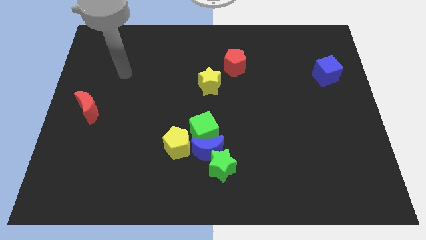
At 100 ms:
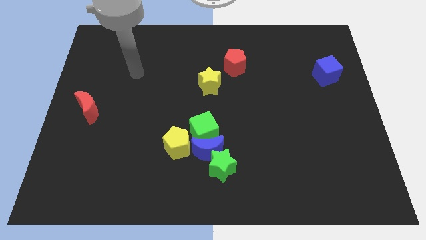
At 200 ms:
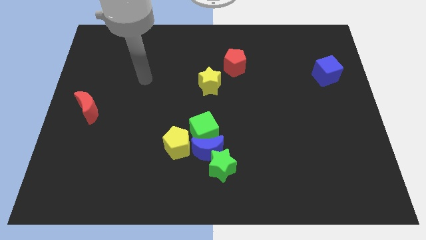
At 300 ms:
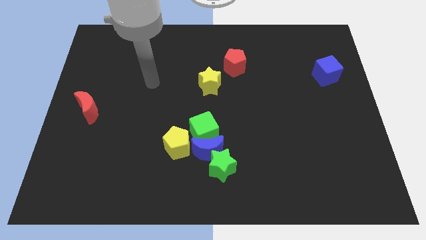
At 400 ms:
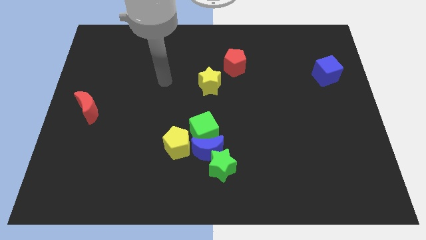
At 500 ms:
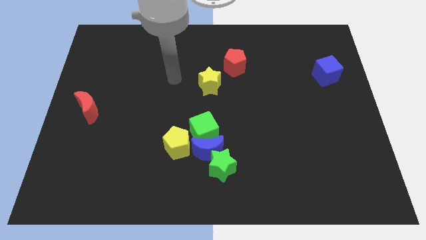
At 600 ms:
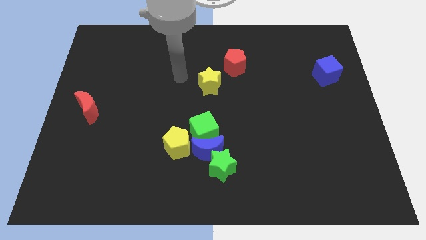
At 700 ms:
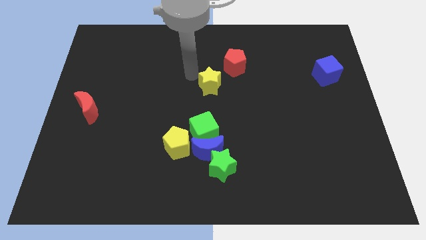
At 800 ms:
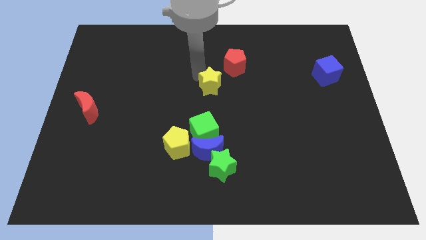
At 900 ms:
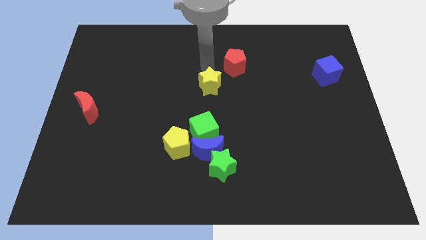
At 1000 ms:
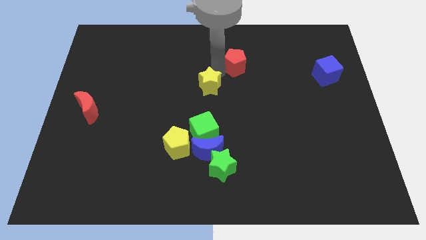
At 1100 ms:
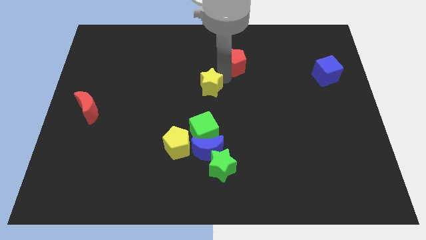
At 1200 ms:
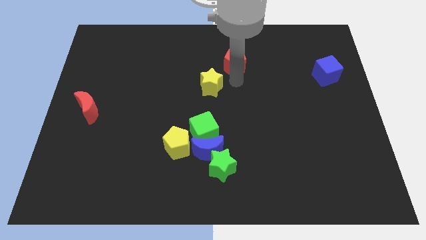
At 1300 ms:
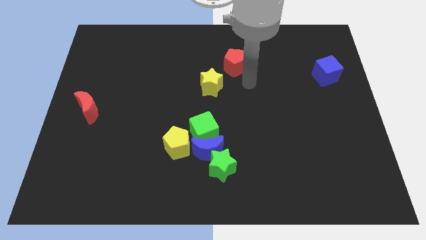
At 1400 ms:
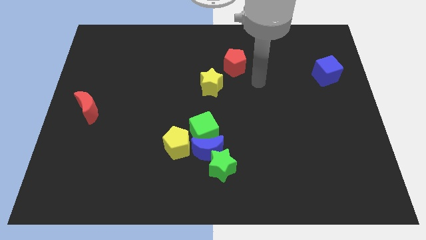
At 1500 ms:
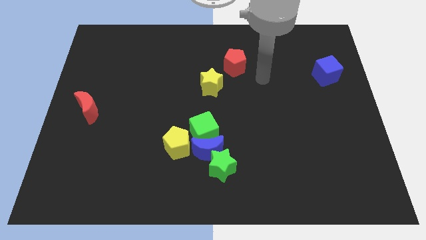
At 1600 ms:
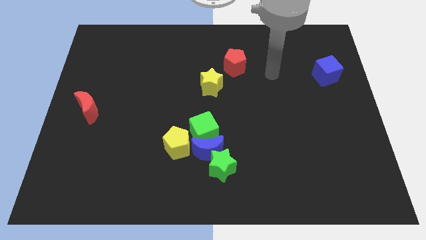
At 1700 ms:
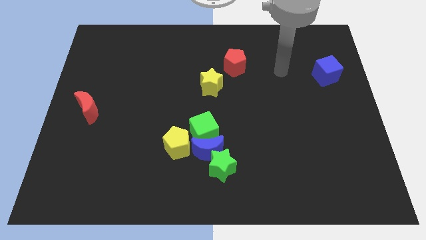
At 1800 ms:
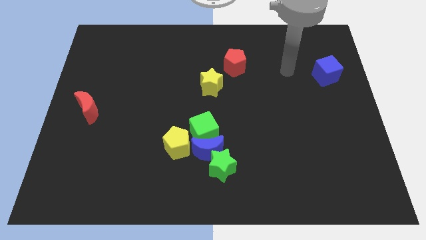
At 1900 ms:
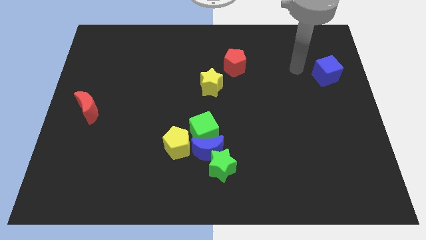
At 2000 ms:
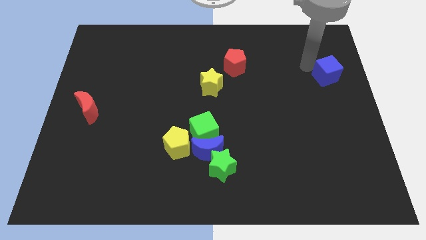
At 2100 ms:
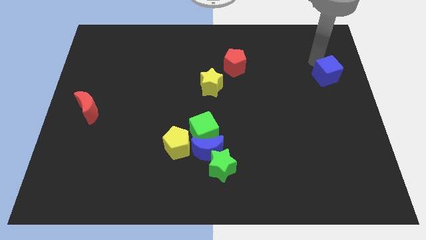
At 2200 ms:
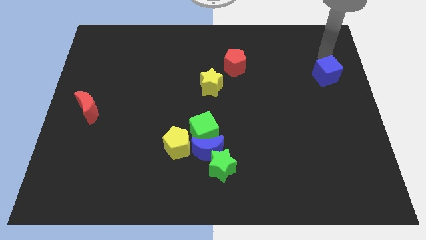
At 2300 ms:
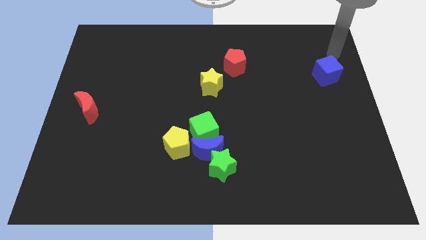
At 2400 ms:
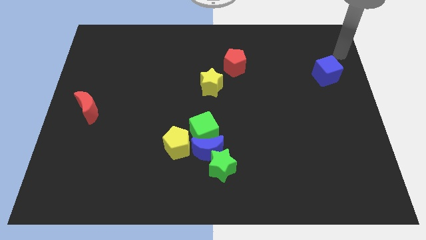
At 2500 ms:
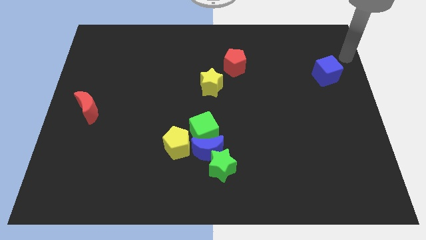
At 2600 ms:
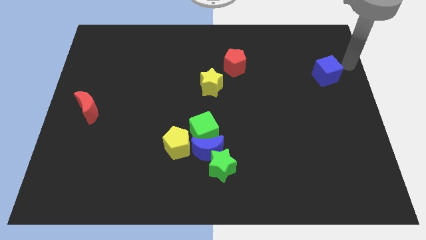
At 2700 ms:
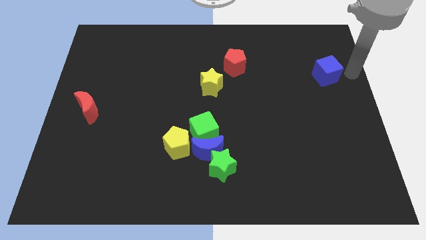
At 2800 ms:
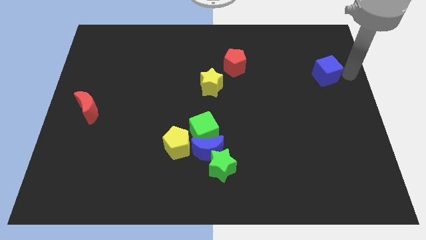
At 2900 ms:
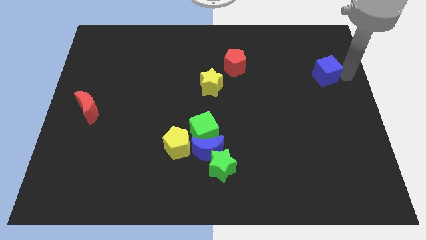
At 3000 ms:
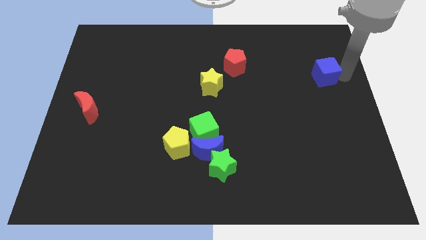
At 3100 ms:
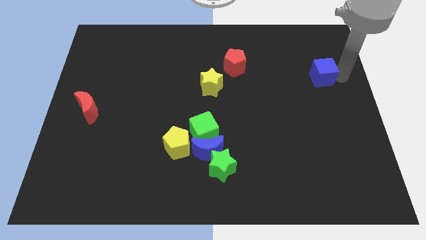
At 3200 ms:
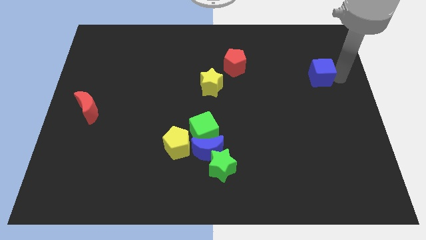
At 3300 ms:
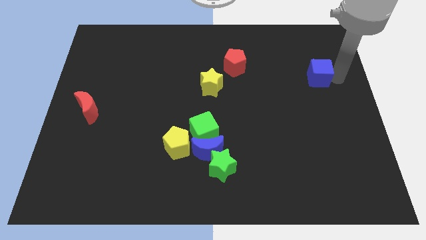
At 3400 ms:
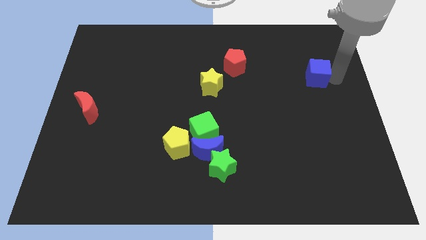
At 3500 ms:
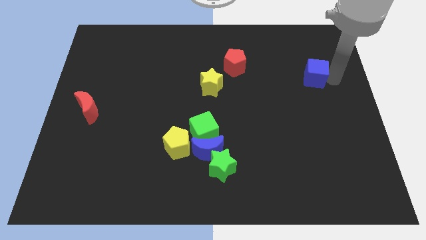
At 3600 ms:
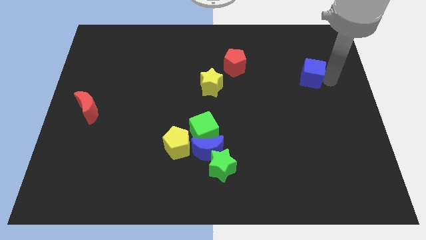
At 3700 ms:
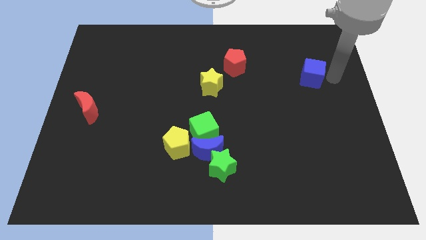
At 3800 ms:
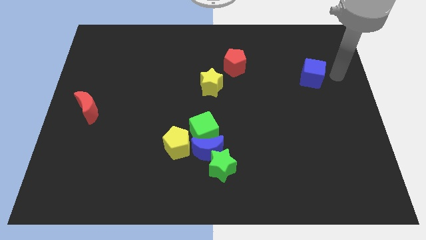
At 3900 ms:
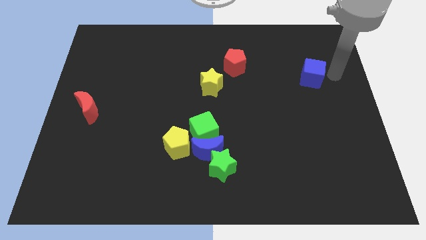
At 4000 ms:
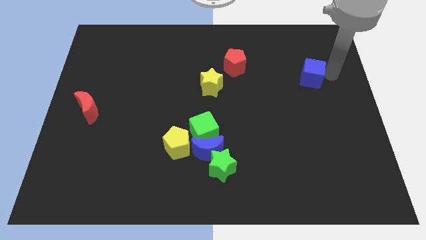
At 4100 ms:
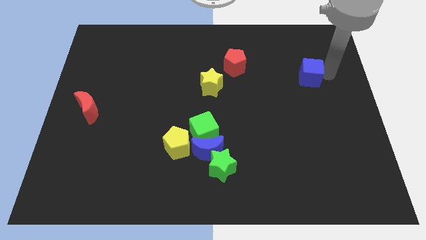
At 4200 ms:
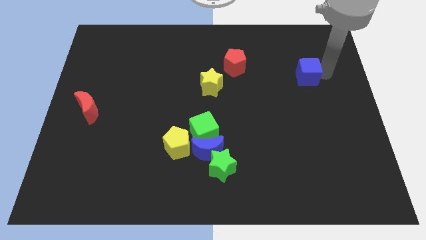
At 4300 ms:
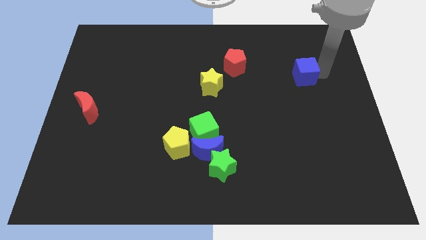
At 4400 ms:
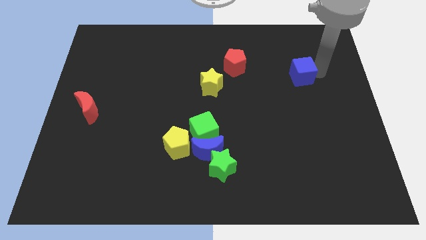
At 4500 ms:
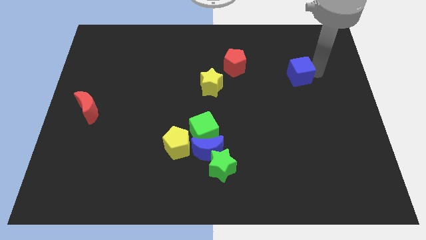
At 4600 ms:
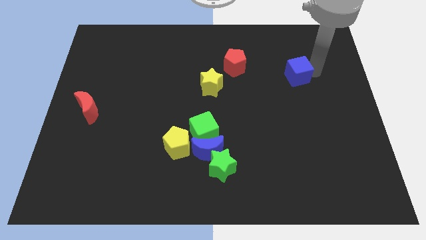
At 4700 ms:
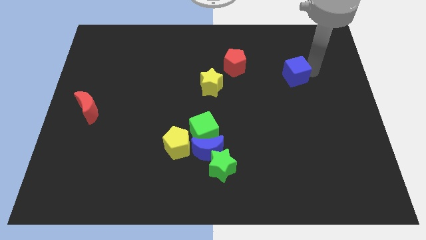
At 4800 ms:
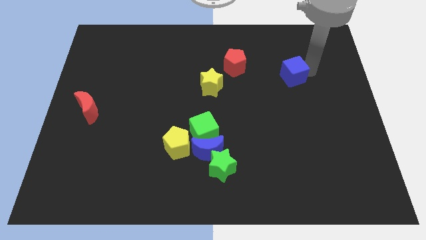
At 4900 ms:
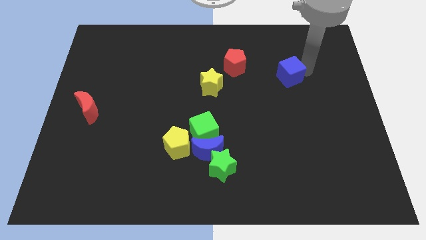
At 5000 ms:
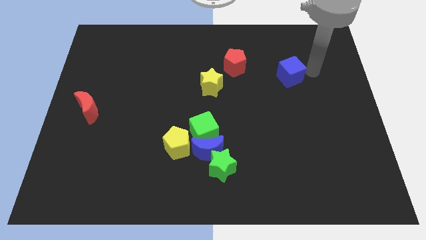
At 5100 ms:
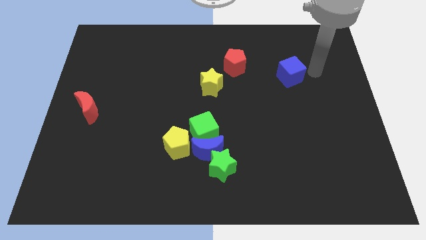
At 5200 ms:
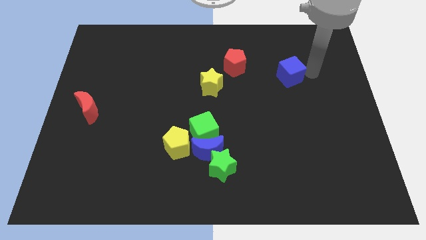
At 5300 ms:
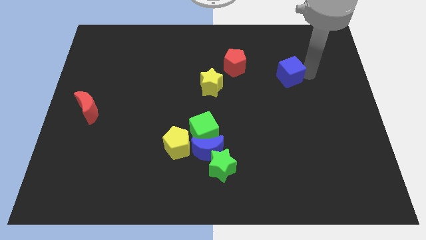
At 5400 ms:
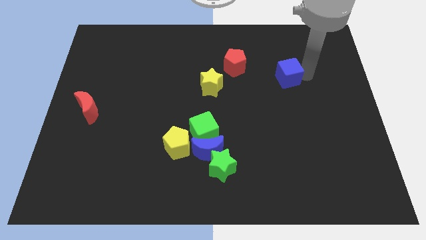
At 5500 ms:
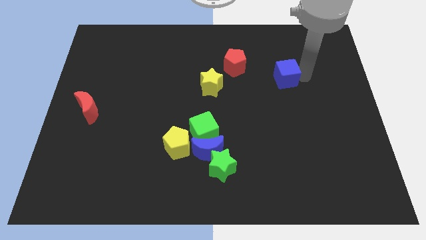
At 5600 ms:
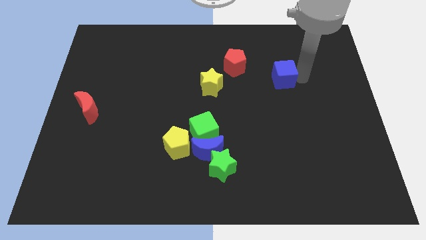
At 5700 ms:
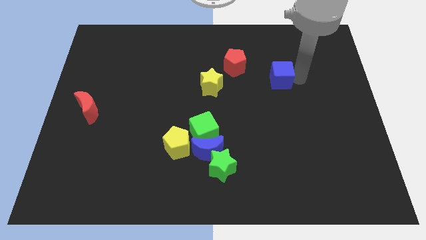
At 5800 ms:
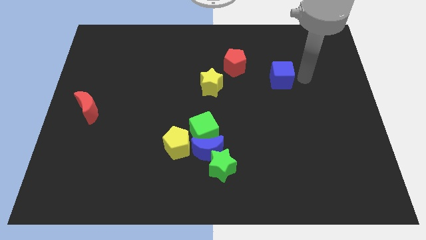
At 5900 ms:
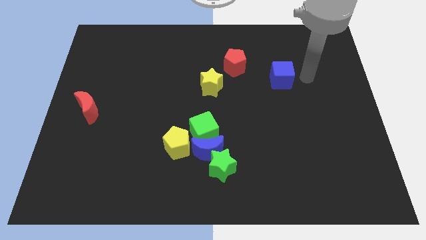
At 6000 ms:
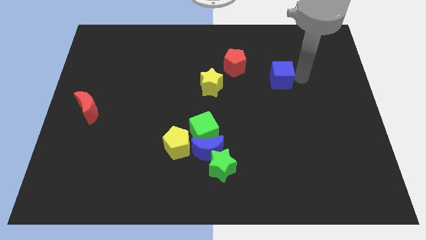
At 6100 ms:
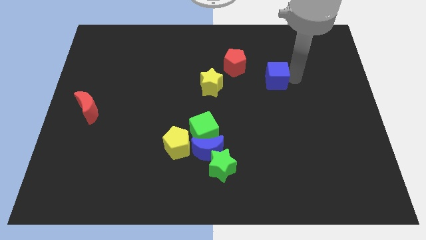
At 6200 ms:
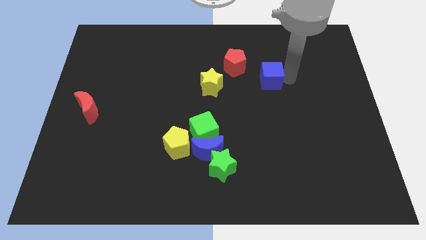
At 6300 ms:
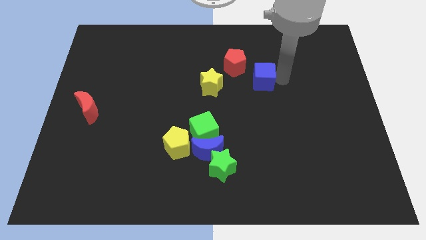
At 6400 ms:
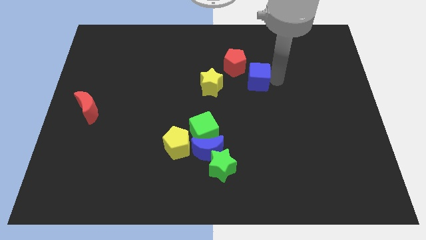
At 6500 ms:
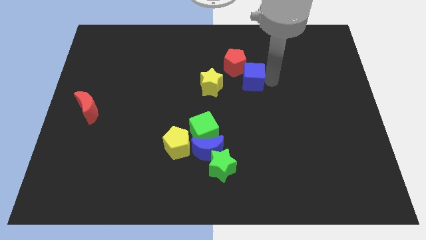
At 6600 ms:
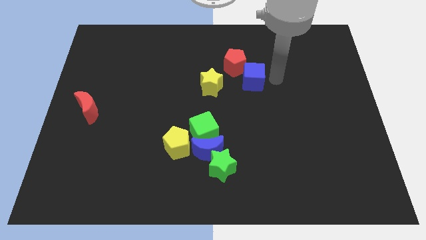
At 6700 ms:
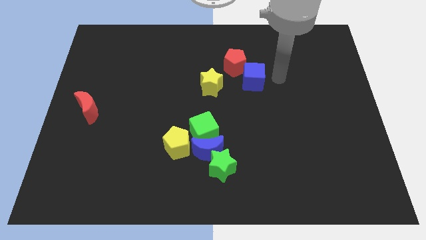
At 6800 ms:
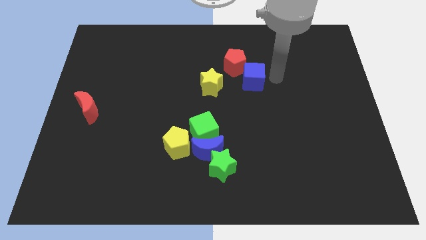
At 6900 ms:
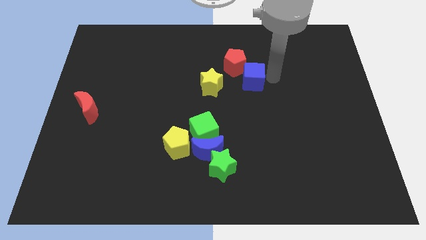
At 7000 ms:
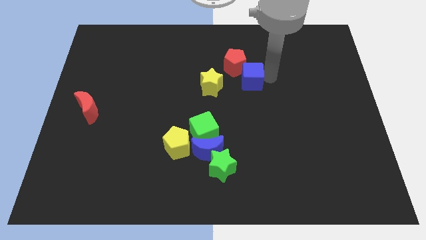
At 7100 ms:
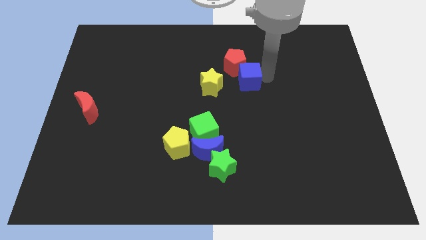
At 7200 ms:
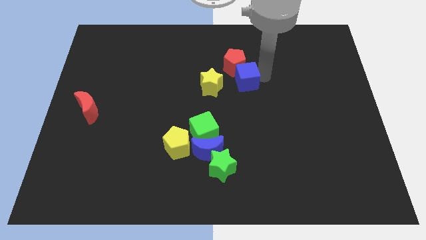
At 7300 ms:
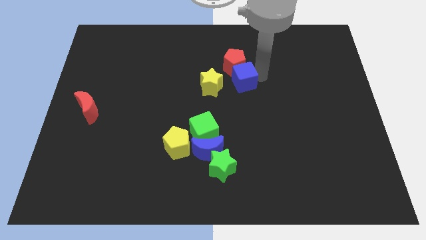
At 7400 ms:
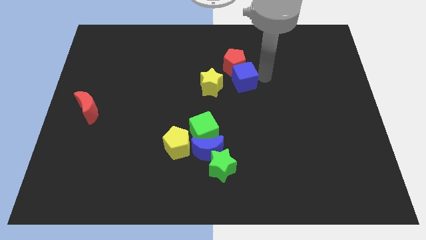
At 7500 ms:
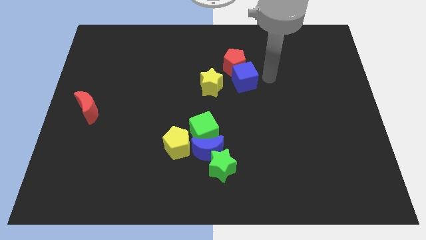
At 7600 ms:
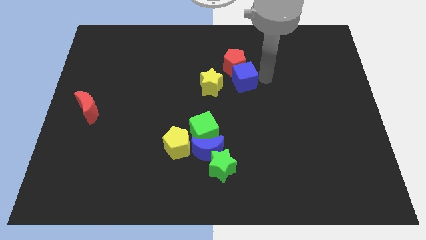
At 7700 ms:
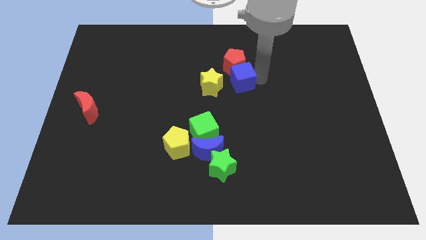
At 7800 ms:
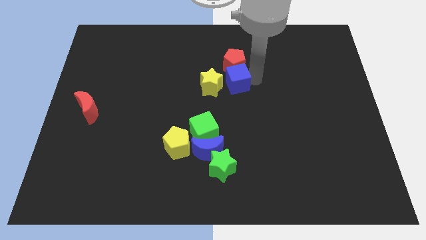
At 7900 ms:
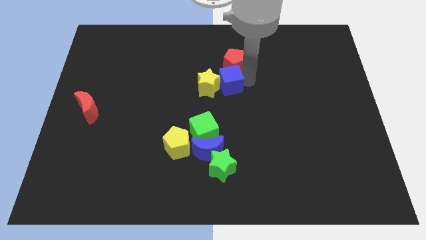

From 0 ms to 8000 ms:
push the blue cube close to the yellow star
